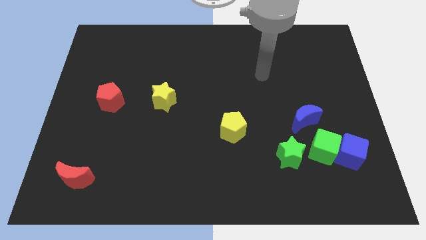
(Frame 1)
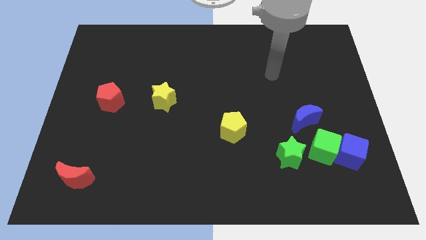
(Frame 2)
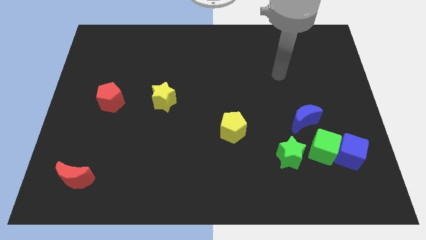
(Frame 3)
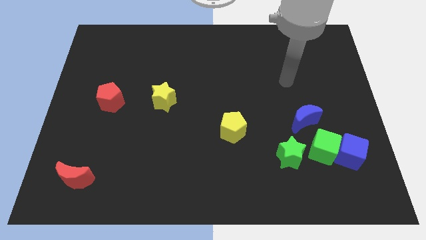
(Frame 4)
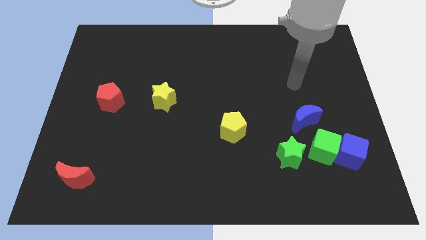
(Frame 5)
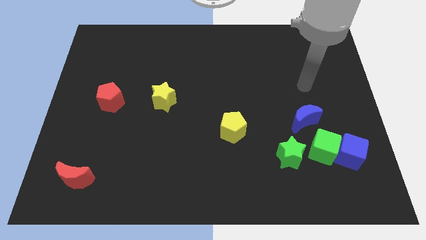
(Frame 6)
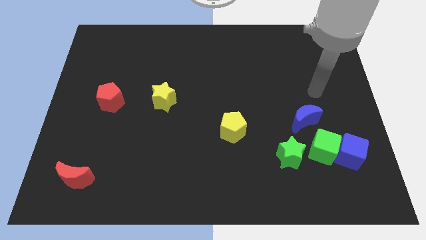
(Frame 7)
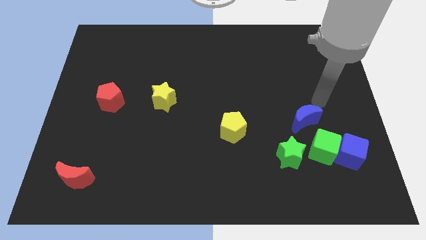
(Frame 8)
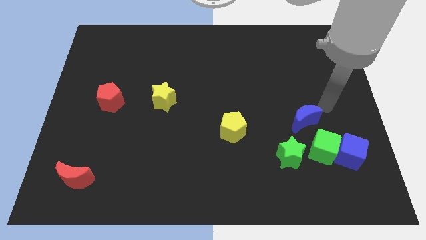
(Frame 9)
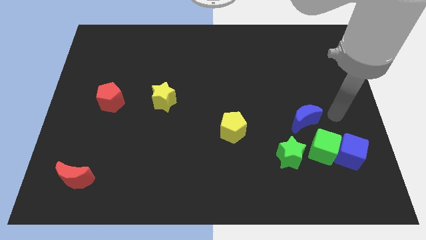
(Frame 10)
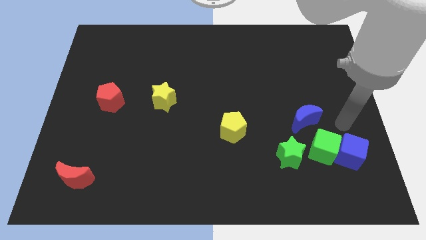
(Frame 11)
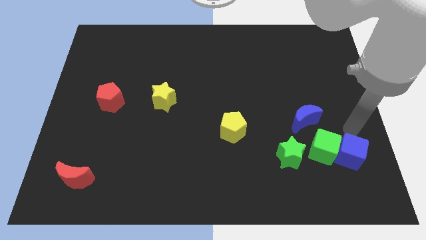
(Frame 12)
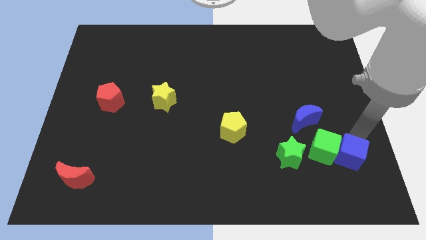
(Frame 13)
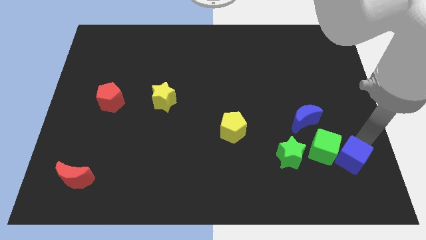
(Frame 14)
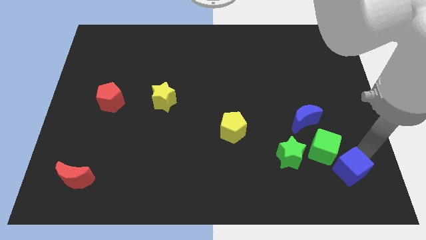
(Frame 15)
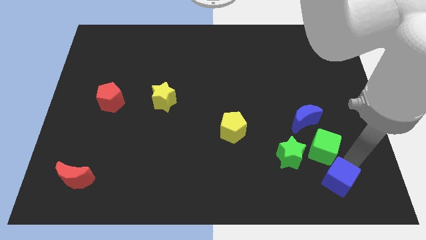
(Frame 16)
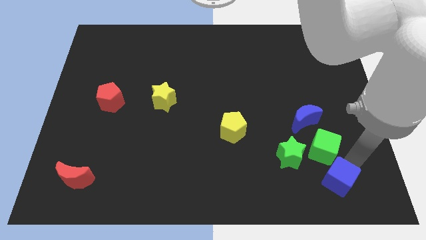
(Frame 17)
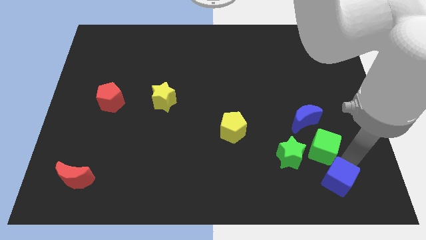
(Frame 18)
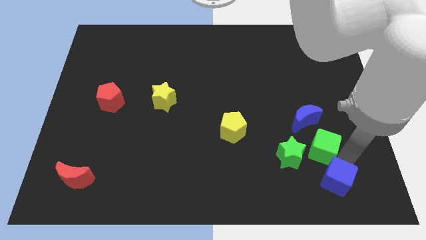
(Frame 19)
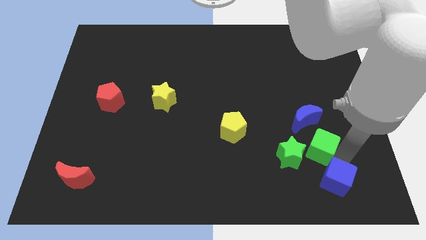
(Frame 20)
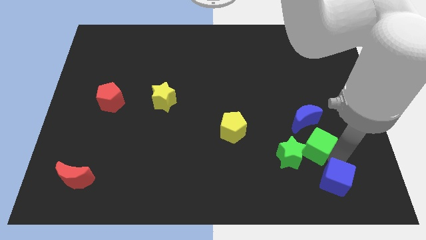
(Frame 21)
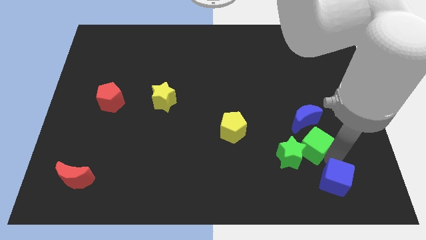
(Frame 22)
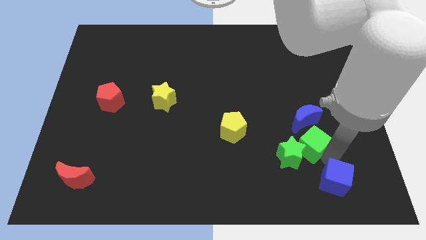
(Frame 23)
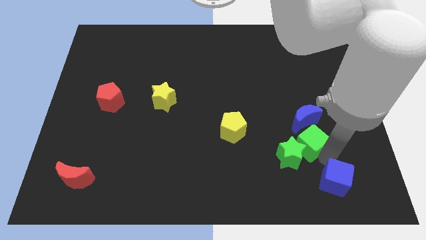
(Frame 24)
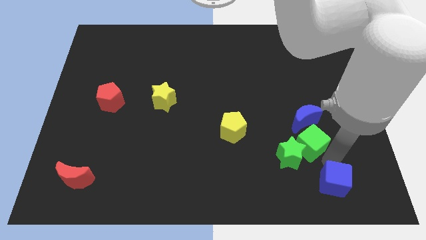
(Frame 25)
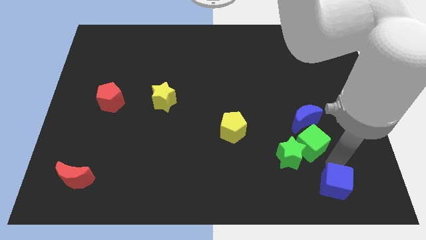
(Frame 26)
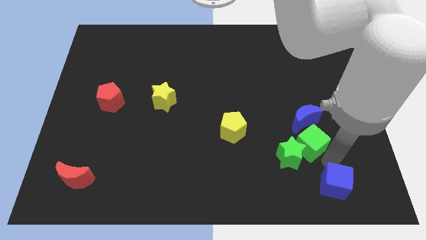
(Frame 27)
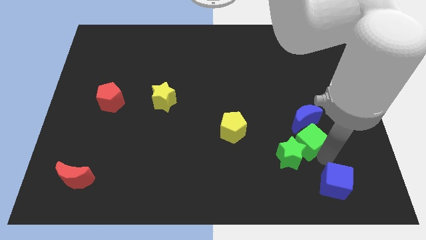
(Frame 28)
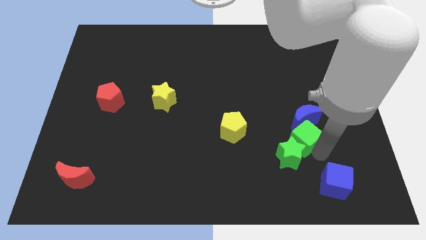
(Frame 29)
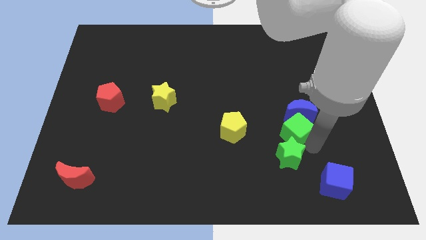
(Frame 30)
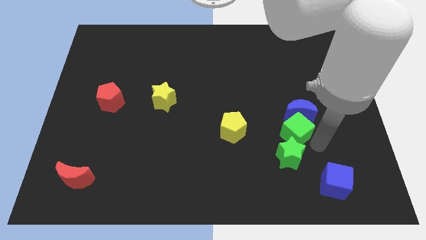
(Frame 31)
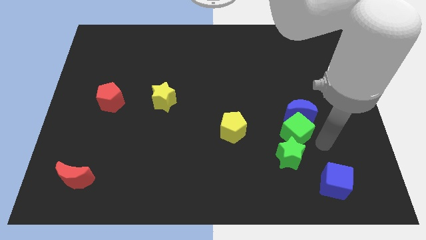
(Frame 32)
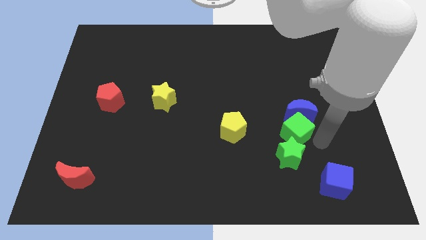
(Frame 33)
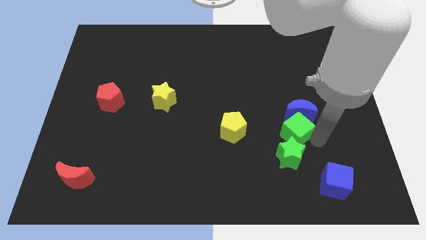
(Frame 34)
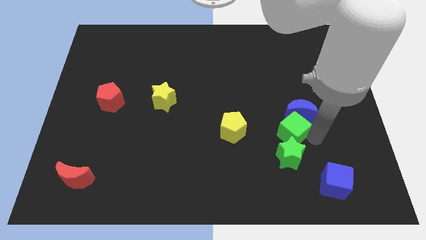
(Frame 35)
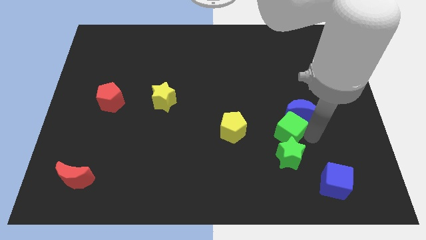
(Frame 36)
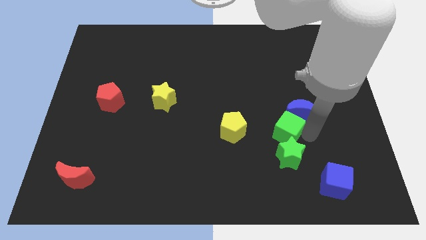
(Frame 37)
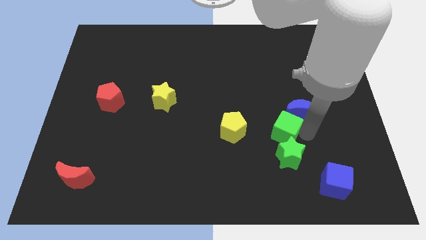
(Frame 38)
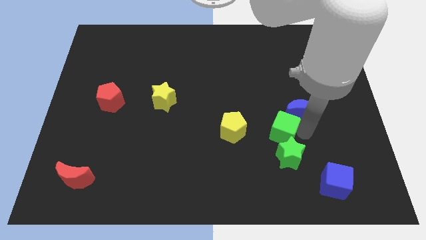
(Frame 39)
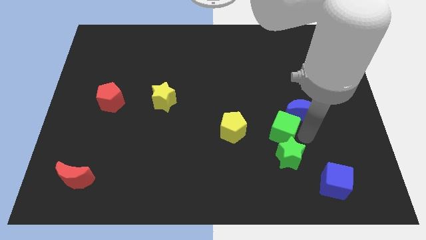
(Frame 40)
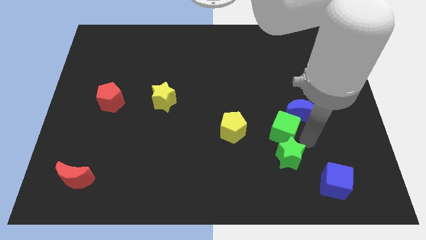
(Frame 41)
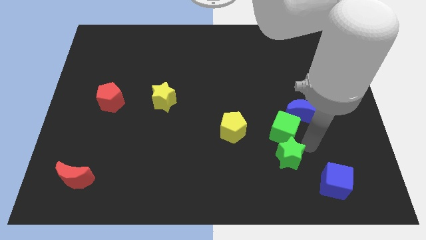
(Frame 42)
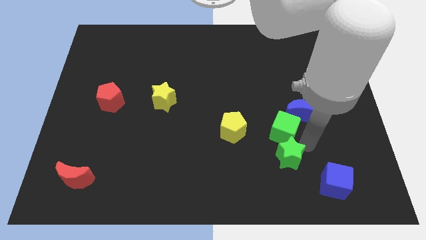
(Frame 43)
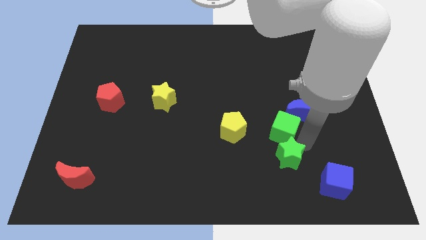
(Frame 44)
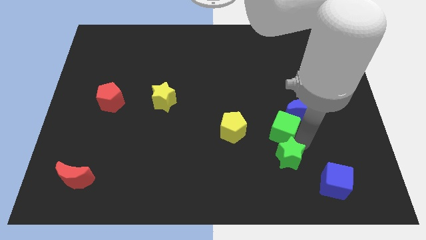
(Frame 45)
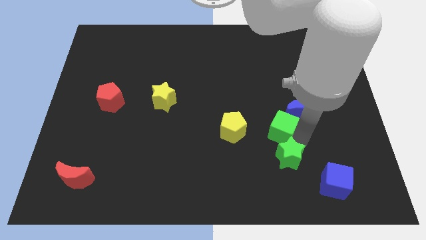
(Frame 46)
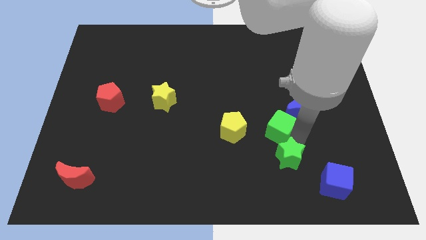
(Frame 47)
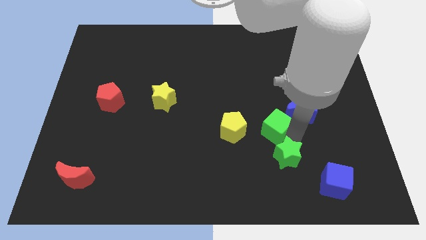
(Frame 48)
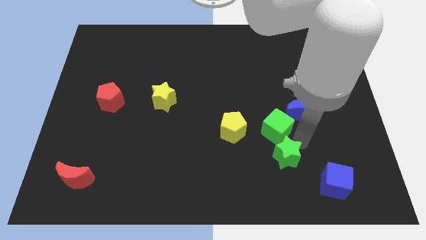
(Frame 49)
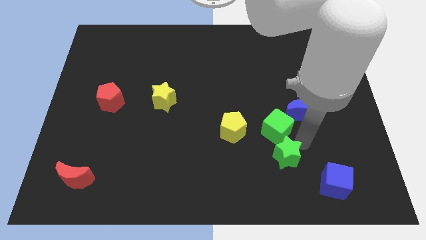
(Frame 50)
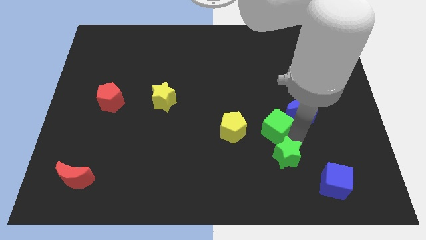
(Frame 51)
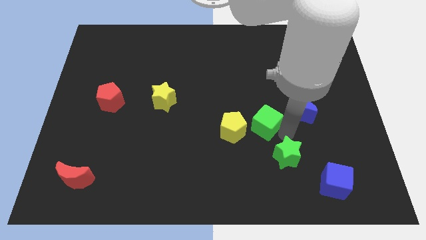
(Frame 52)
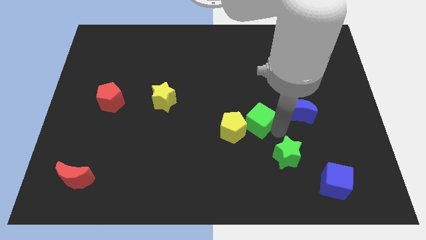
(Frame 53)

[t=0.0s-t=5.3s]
push the green cube to the middle of the board

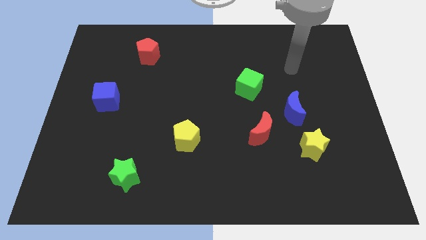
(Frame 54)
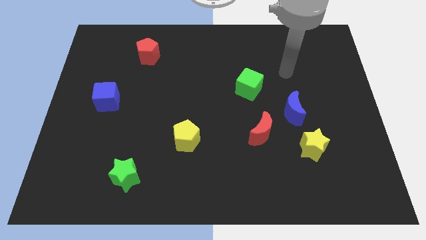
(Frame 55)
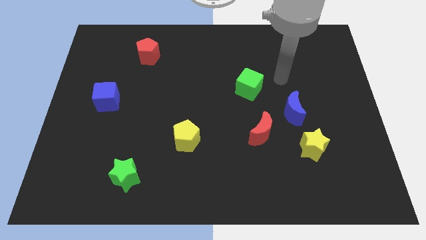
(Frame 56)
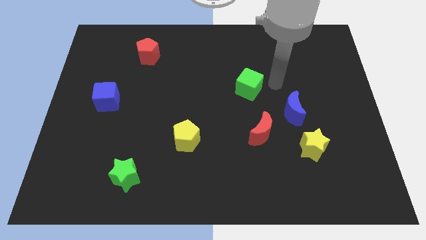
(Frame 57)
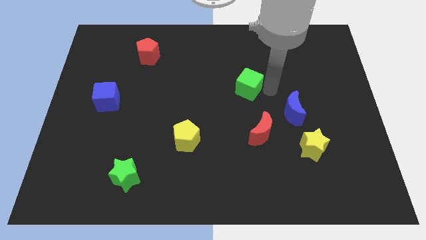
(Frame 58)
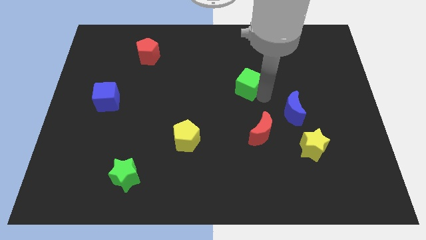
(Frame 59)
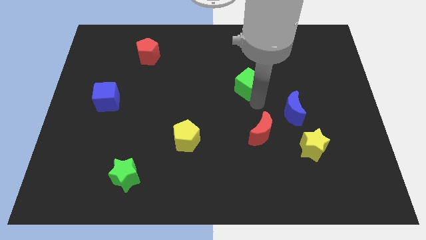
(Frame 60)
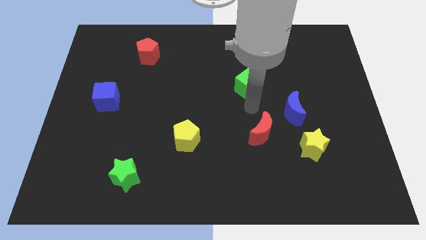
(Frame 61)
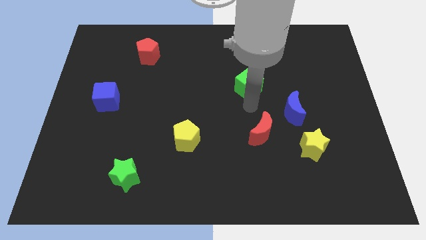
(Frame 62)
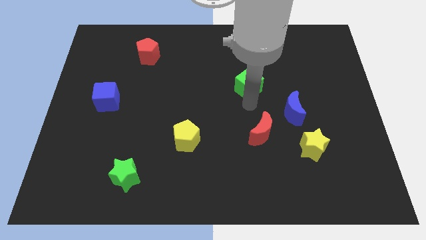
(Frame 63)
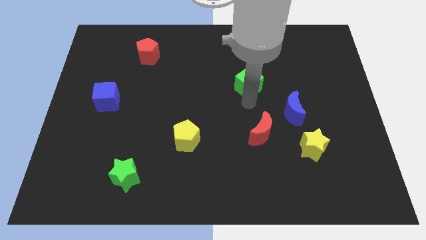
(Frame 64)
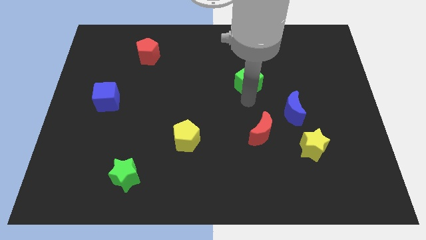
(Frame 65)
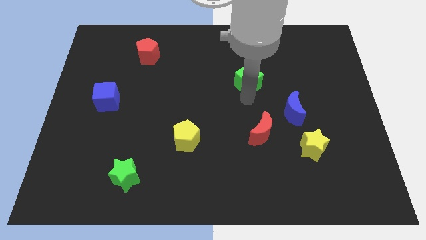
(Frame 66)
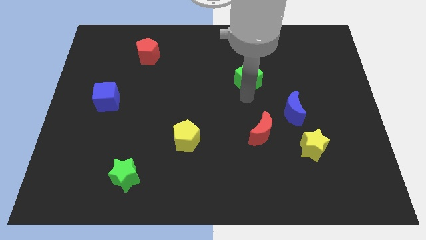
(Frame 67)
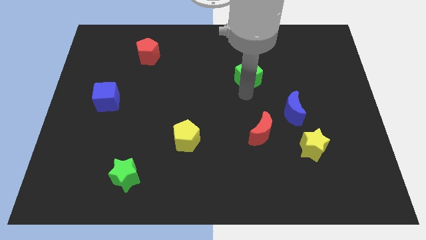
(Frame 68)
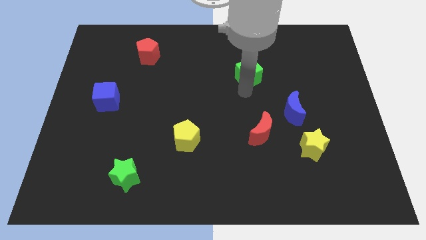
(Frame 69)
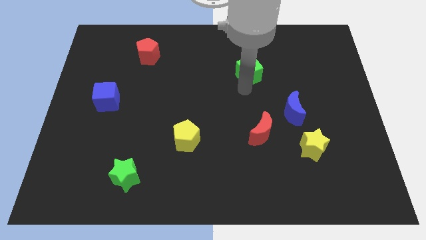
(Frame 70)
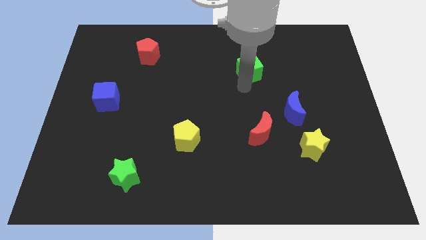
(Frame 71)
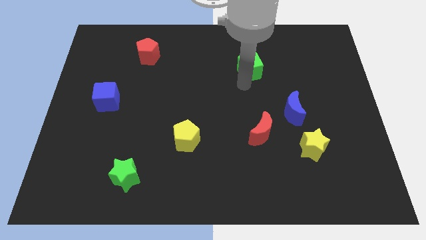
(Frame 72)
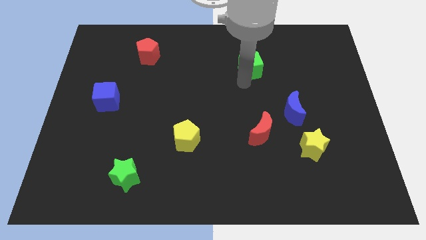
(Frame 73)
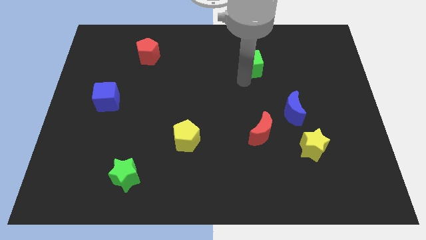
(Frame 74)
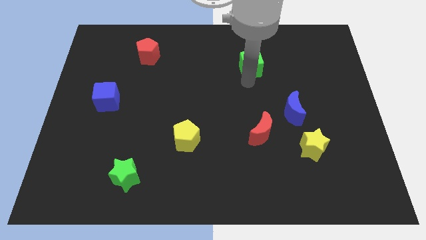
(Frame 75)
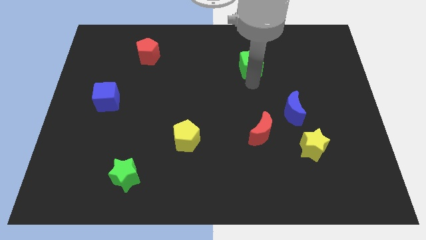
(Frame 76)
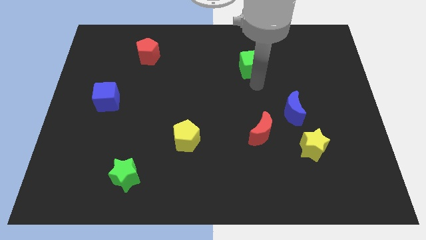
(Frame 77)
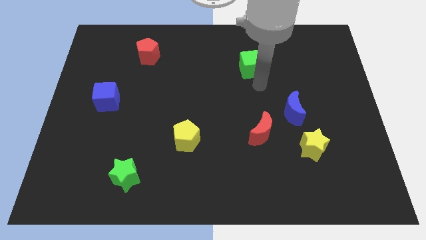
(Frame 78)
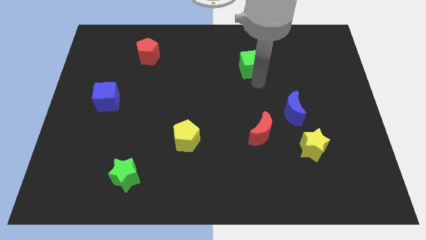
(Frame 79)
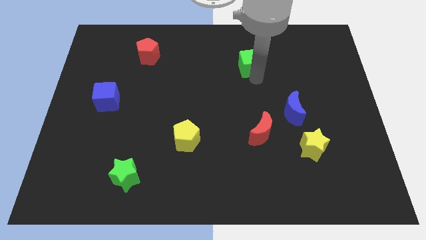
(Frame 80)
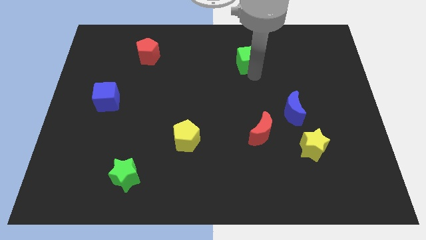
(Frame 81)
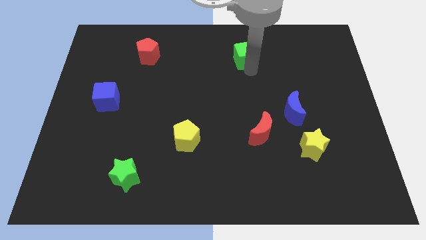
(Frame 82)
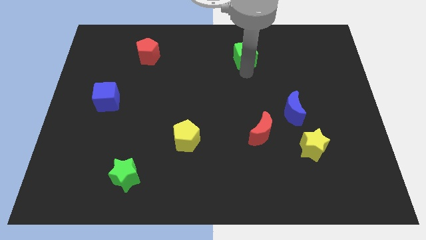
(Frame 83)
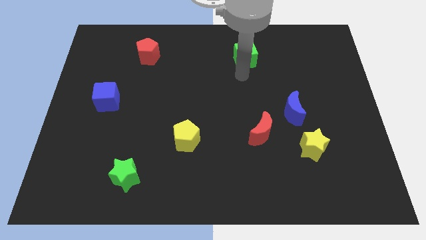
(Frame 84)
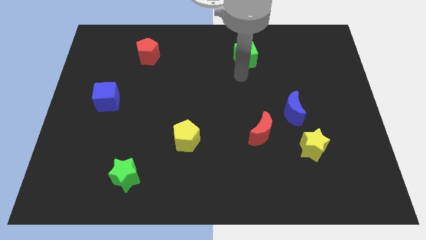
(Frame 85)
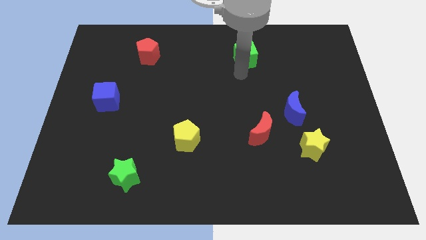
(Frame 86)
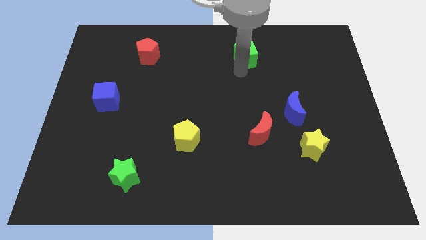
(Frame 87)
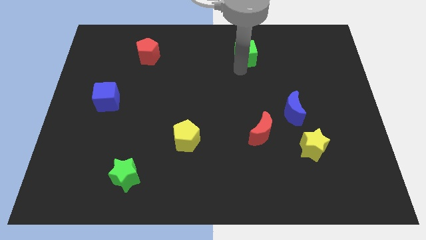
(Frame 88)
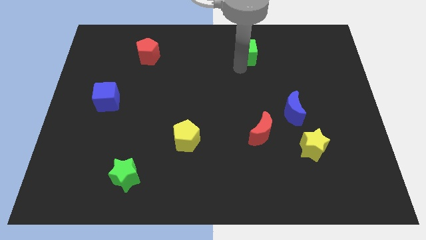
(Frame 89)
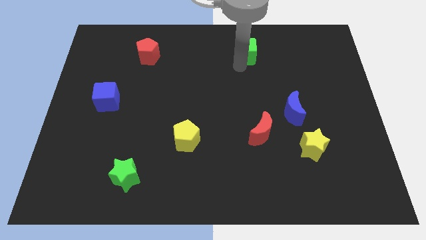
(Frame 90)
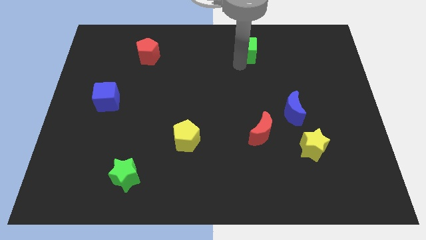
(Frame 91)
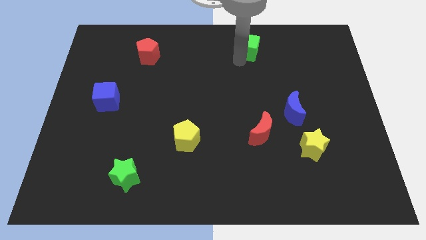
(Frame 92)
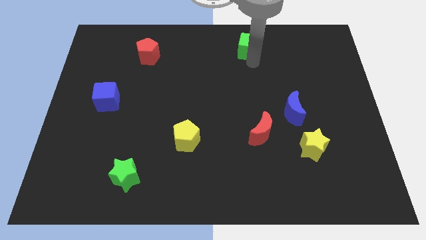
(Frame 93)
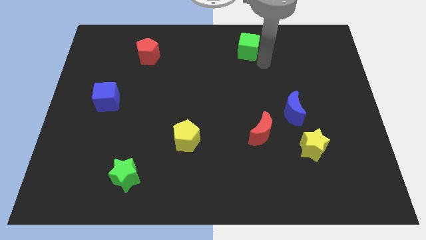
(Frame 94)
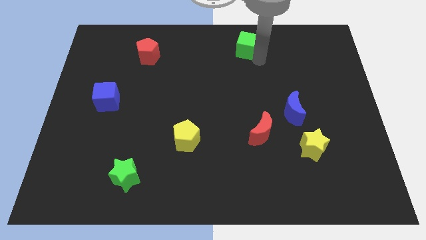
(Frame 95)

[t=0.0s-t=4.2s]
push the green cube to the towards your base
